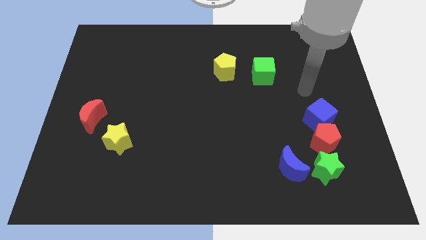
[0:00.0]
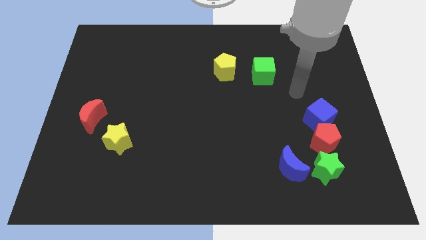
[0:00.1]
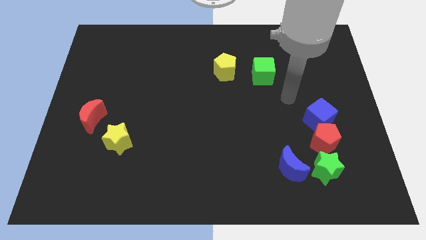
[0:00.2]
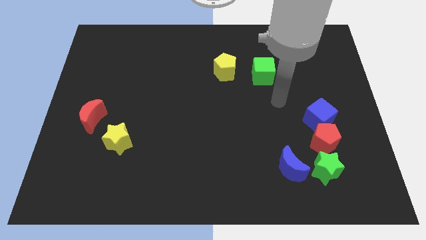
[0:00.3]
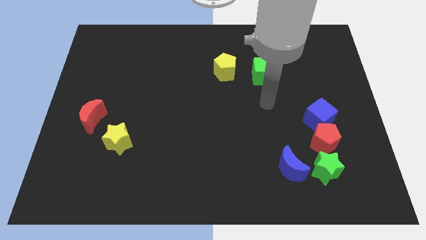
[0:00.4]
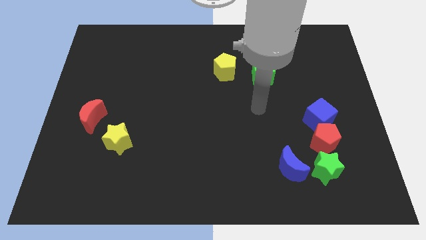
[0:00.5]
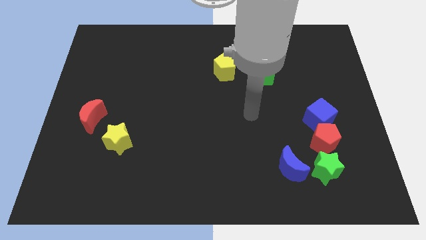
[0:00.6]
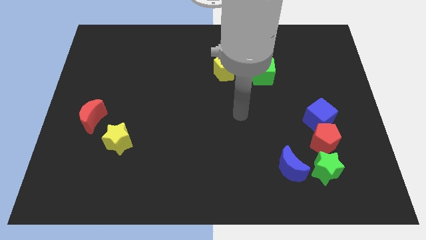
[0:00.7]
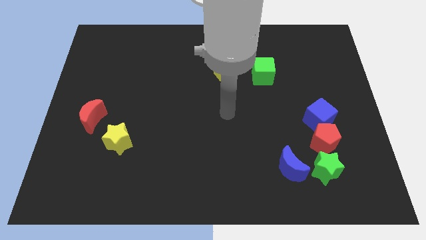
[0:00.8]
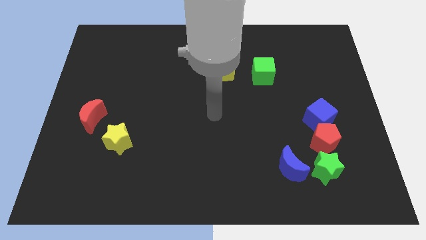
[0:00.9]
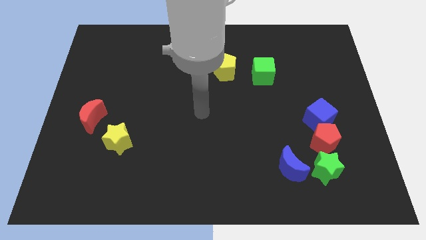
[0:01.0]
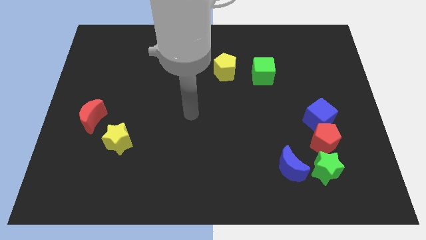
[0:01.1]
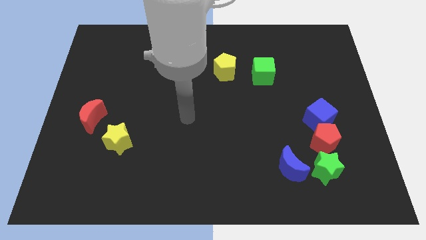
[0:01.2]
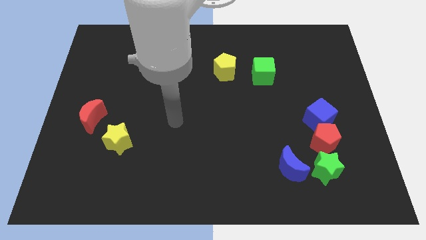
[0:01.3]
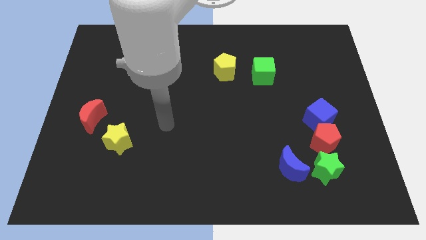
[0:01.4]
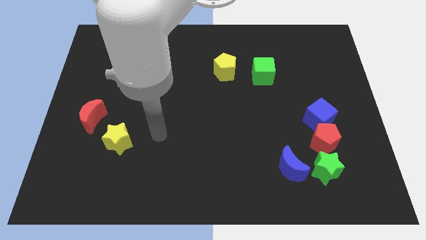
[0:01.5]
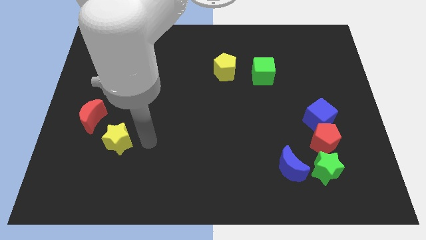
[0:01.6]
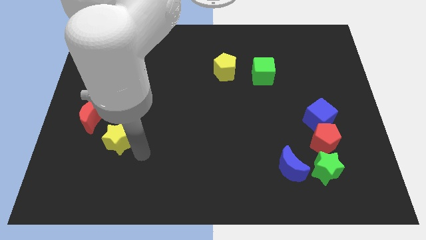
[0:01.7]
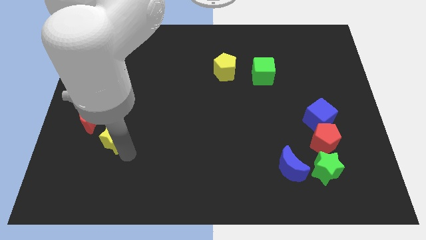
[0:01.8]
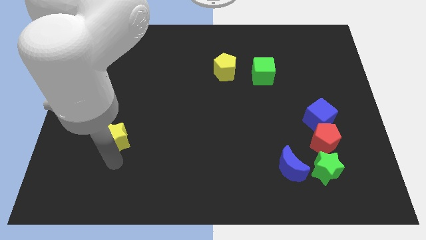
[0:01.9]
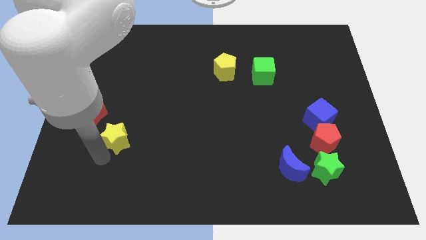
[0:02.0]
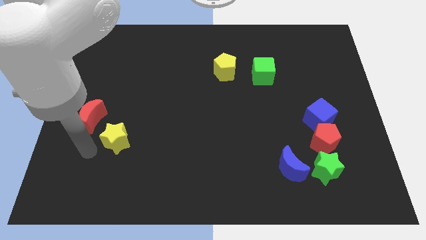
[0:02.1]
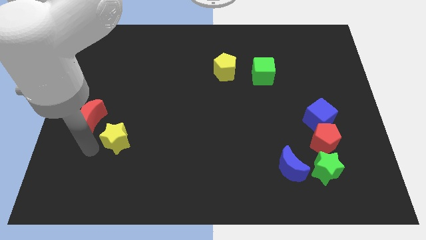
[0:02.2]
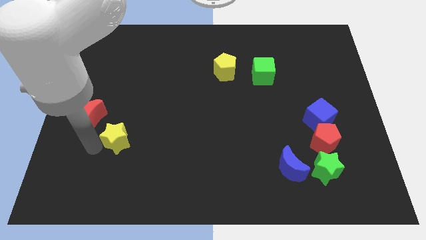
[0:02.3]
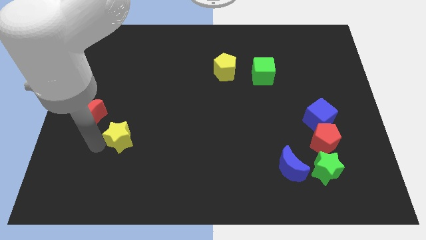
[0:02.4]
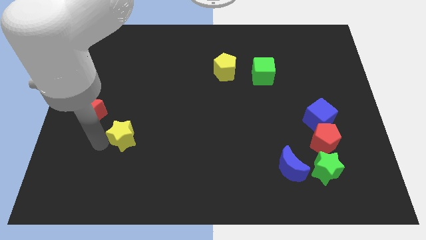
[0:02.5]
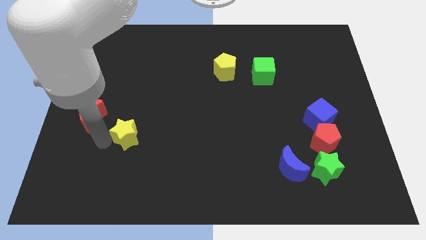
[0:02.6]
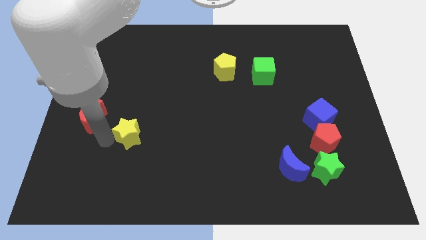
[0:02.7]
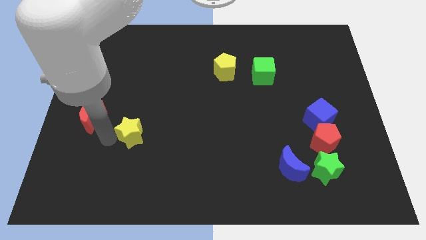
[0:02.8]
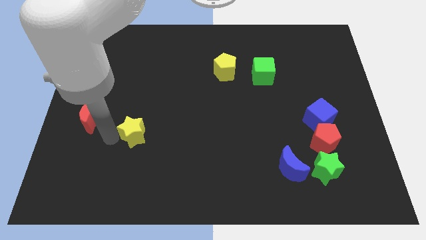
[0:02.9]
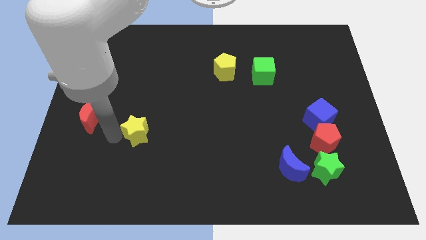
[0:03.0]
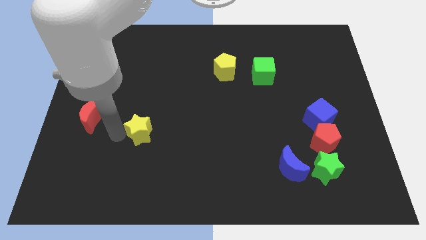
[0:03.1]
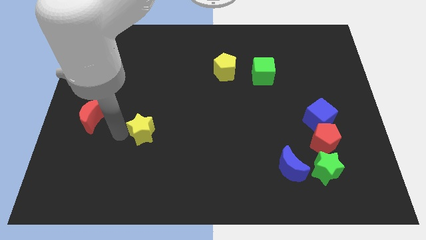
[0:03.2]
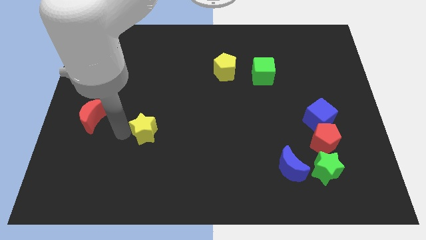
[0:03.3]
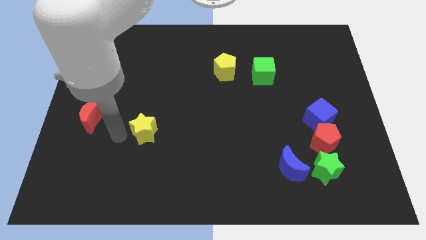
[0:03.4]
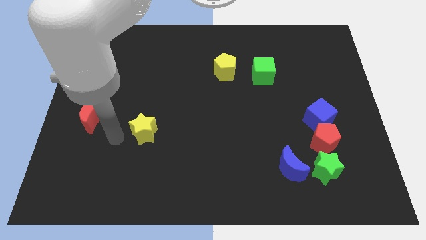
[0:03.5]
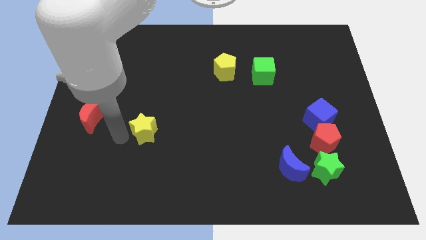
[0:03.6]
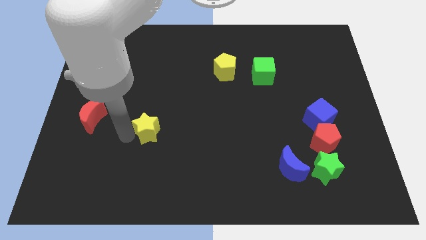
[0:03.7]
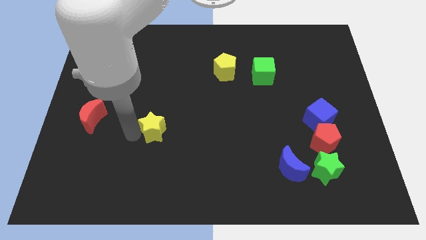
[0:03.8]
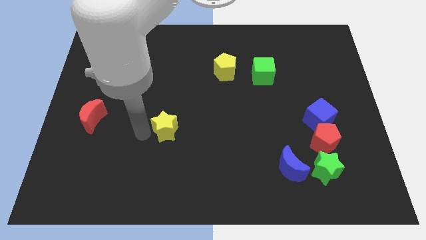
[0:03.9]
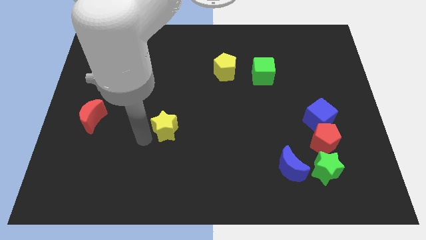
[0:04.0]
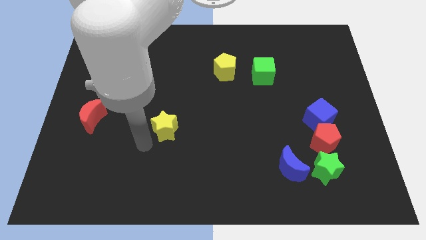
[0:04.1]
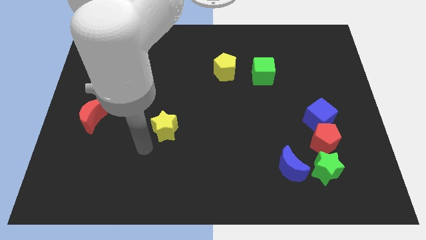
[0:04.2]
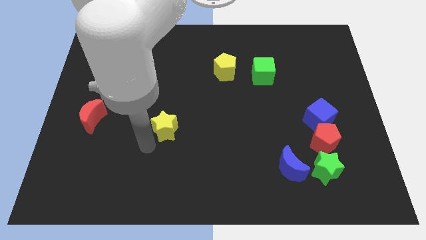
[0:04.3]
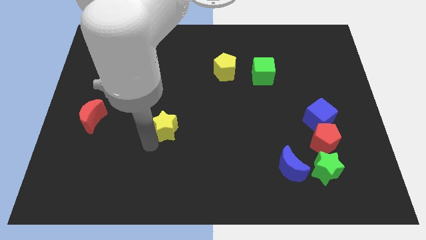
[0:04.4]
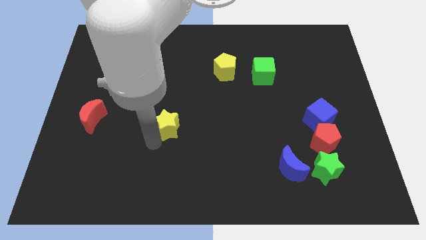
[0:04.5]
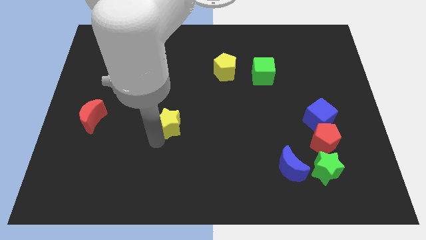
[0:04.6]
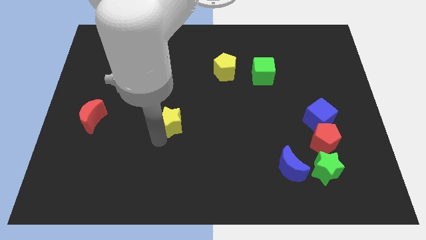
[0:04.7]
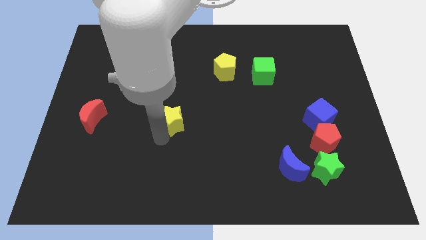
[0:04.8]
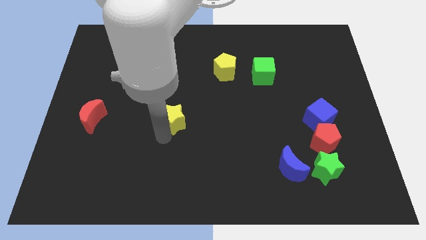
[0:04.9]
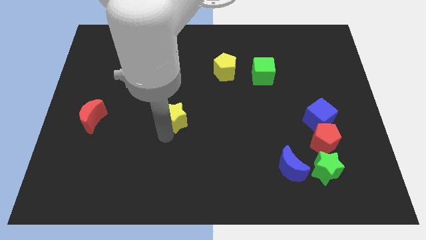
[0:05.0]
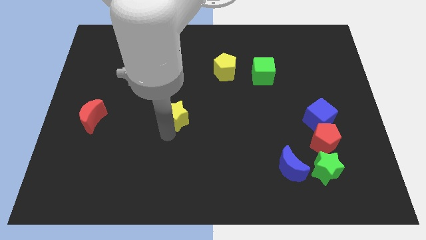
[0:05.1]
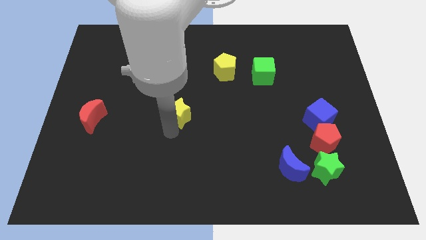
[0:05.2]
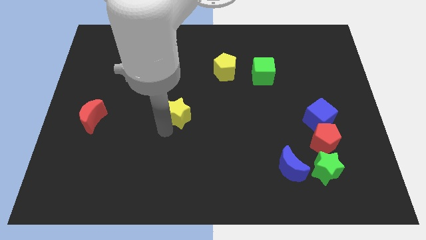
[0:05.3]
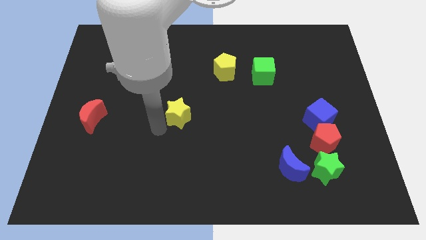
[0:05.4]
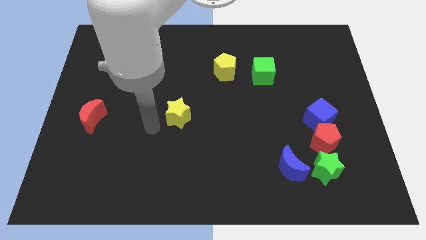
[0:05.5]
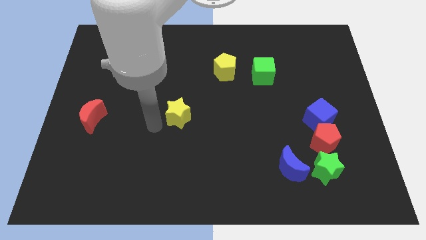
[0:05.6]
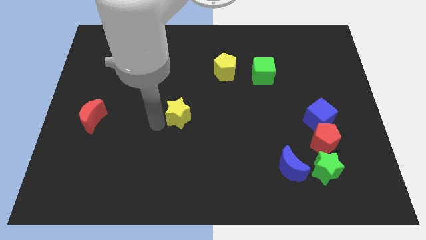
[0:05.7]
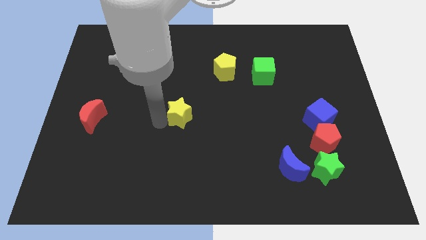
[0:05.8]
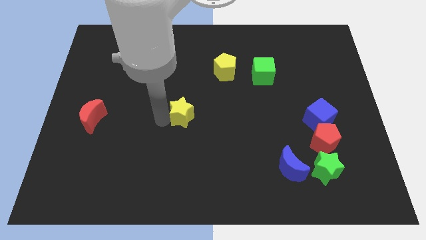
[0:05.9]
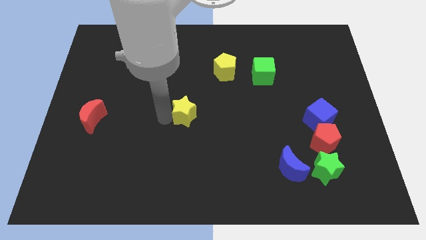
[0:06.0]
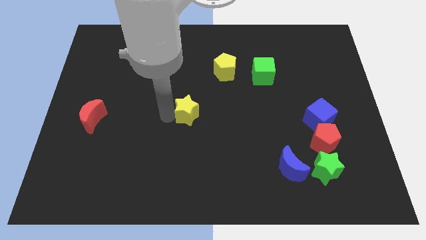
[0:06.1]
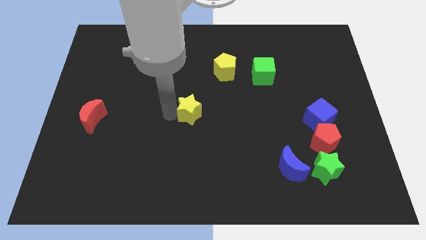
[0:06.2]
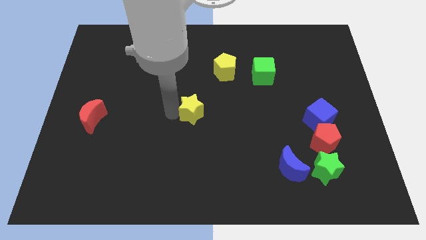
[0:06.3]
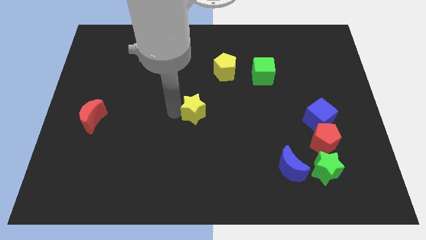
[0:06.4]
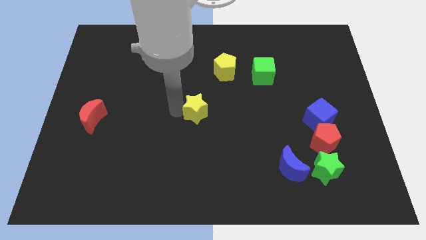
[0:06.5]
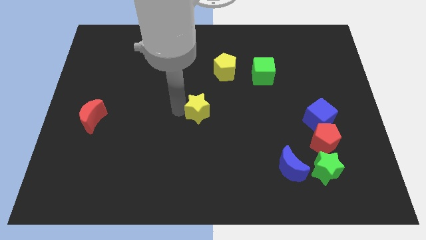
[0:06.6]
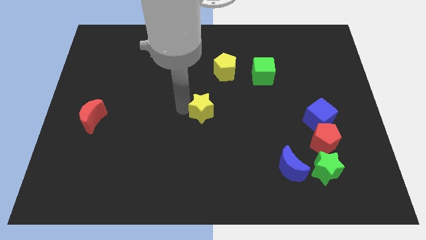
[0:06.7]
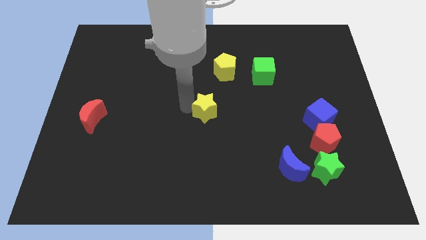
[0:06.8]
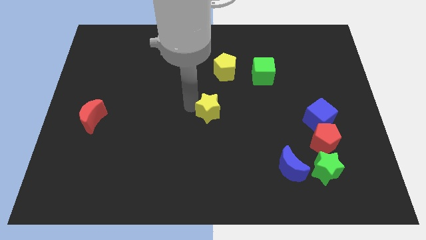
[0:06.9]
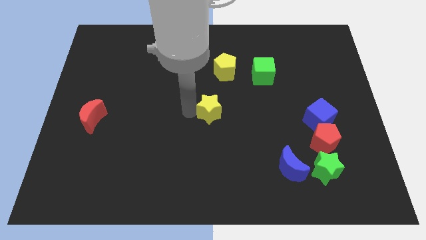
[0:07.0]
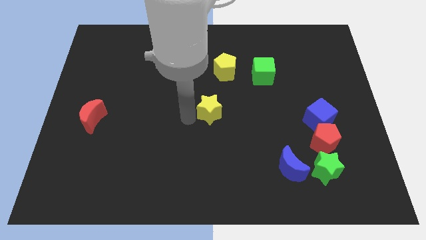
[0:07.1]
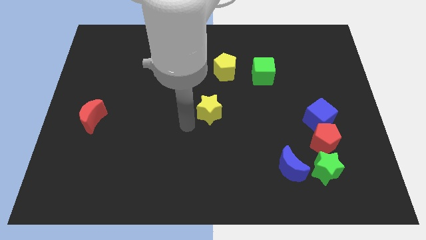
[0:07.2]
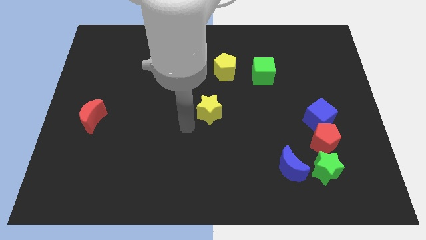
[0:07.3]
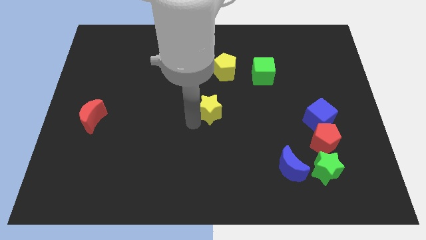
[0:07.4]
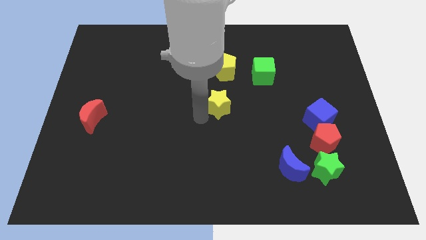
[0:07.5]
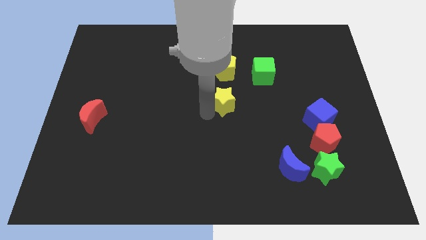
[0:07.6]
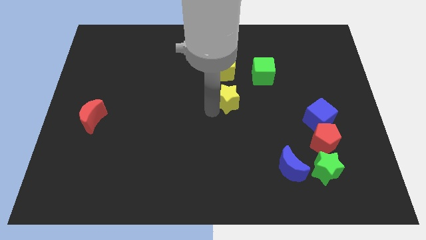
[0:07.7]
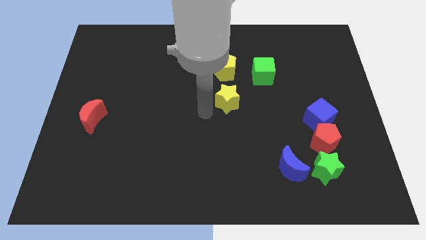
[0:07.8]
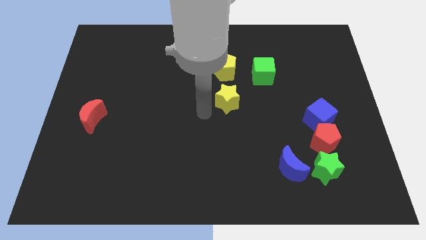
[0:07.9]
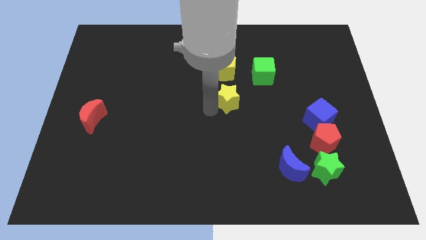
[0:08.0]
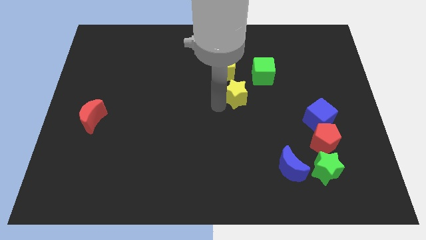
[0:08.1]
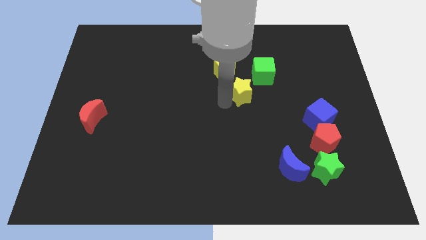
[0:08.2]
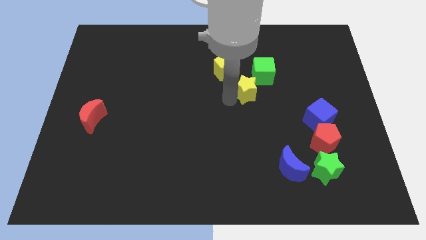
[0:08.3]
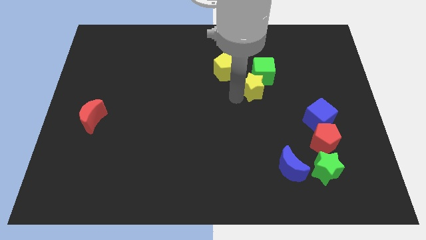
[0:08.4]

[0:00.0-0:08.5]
push the yellow star to the green cube
